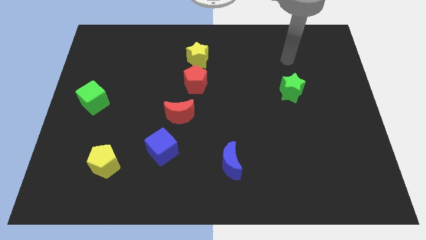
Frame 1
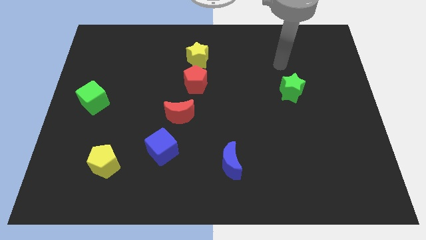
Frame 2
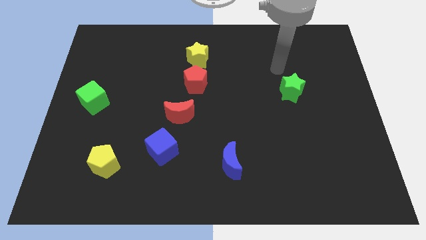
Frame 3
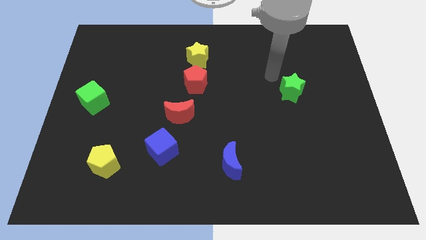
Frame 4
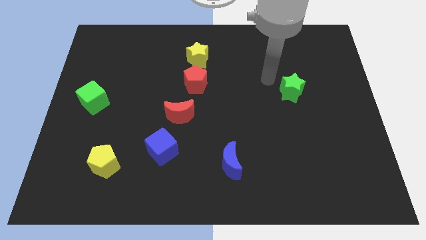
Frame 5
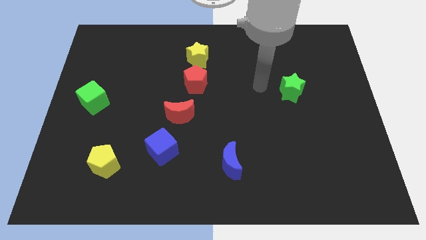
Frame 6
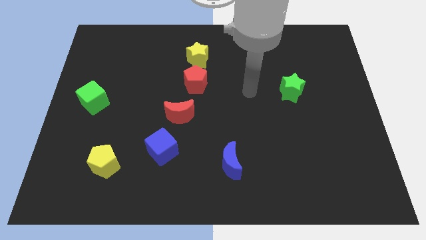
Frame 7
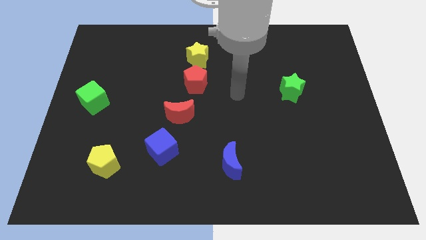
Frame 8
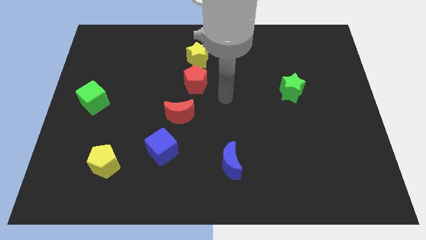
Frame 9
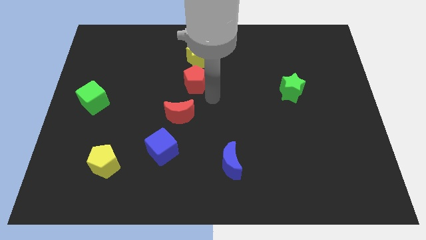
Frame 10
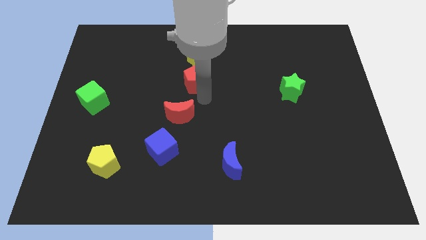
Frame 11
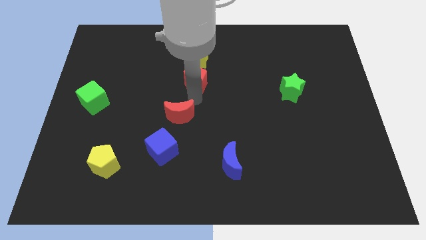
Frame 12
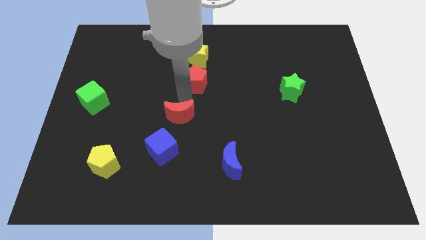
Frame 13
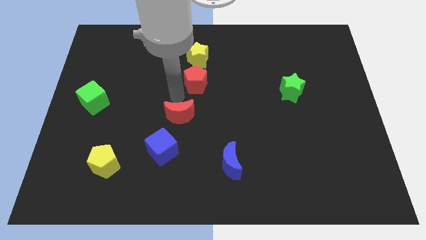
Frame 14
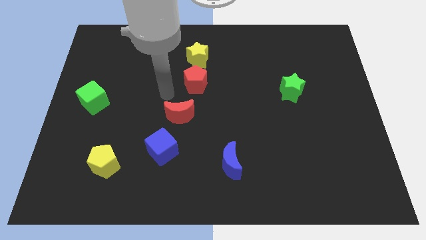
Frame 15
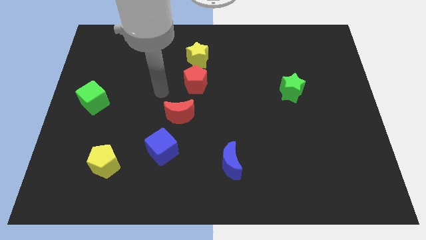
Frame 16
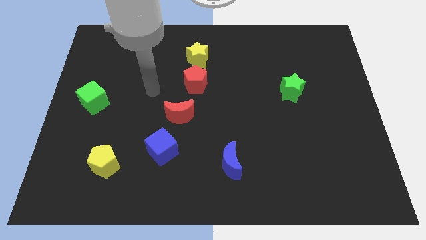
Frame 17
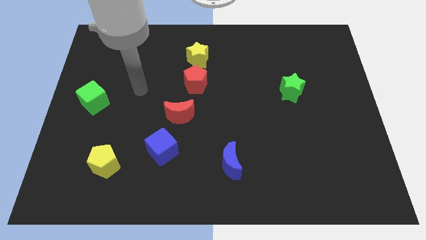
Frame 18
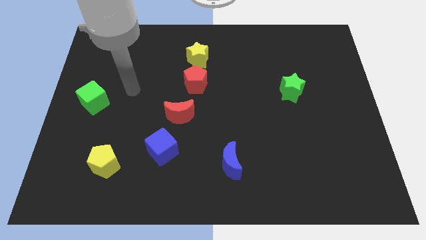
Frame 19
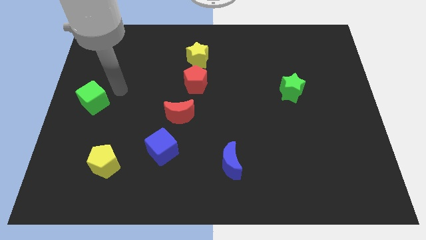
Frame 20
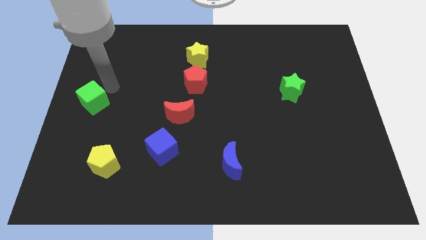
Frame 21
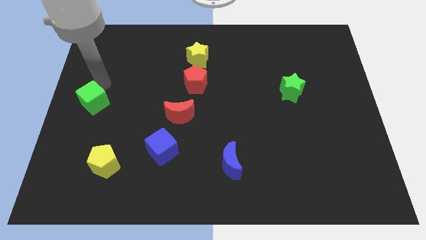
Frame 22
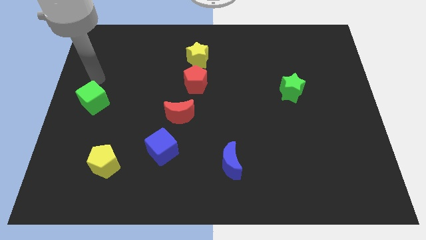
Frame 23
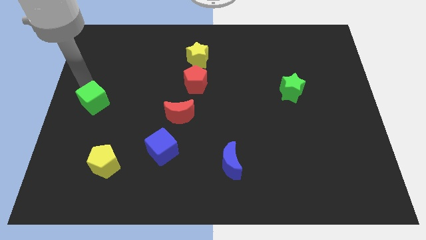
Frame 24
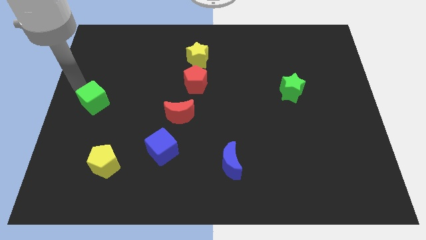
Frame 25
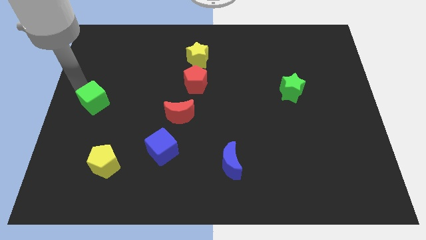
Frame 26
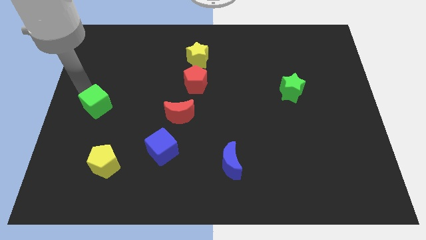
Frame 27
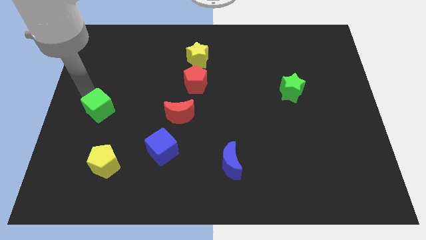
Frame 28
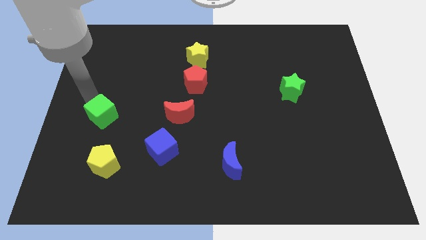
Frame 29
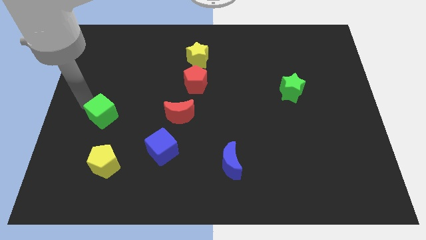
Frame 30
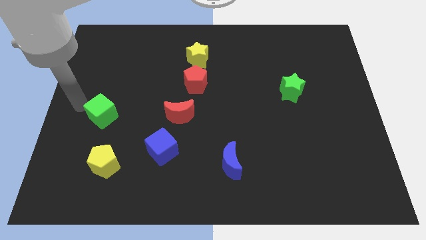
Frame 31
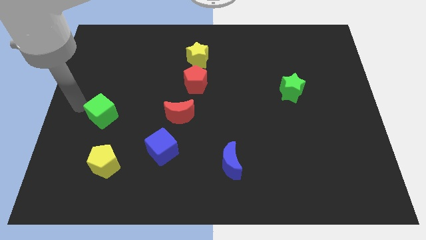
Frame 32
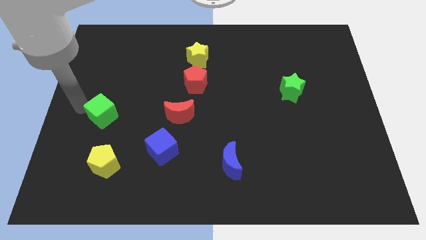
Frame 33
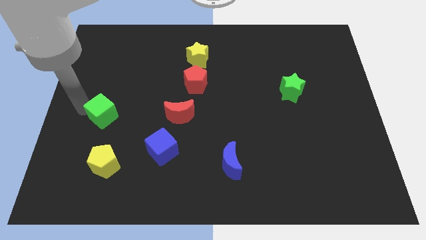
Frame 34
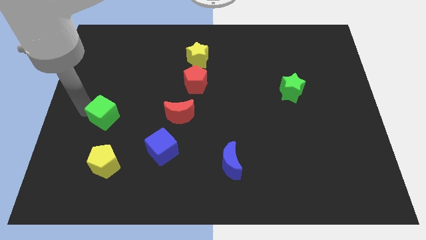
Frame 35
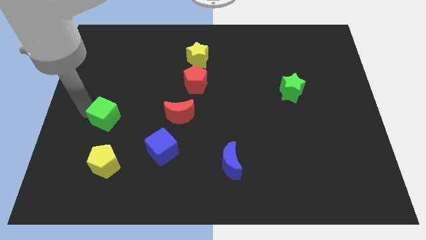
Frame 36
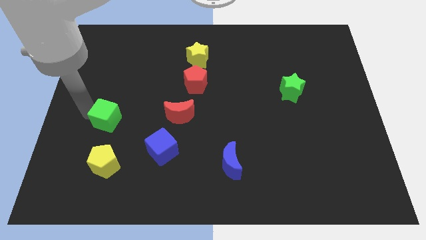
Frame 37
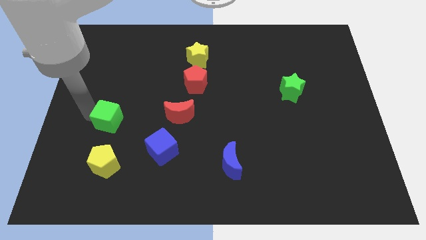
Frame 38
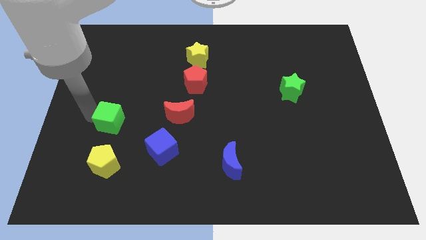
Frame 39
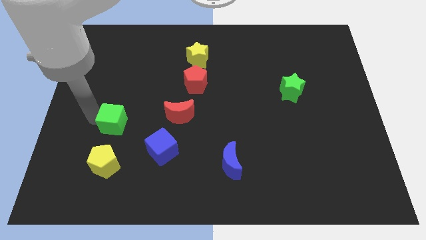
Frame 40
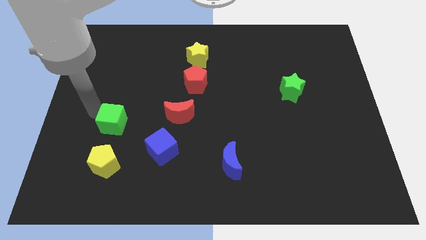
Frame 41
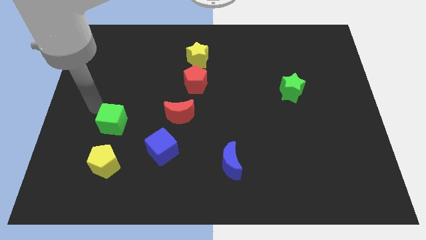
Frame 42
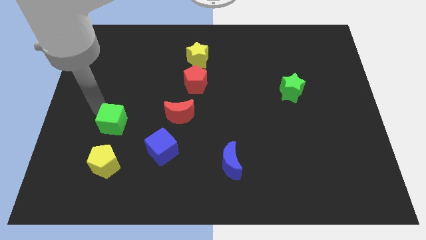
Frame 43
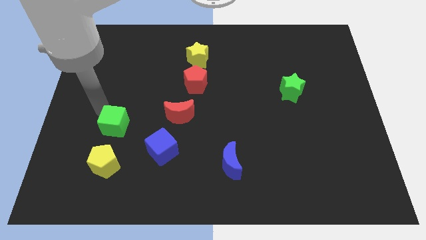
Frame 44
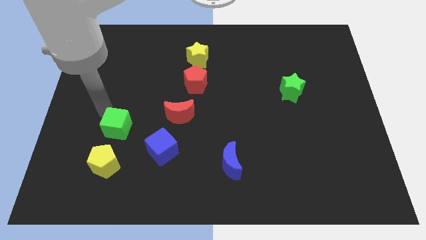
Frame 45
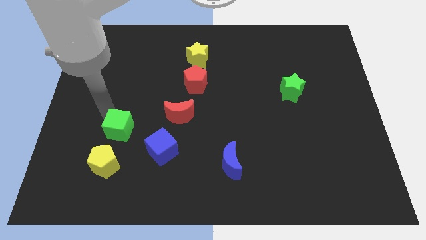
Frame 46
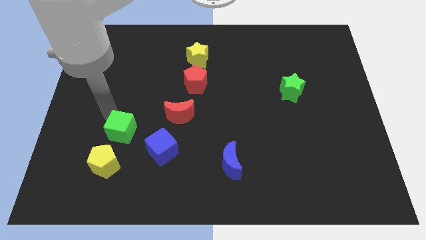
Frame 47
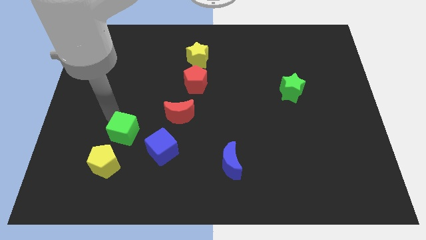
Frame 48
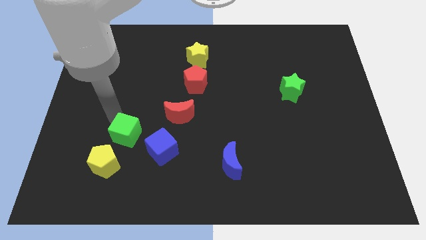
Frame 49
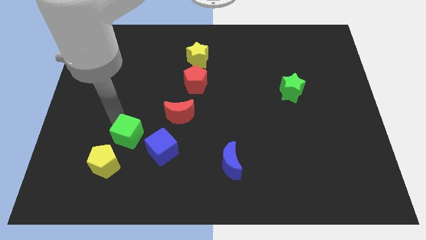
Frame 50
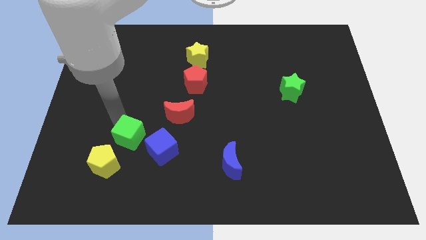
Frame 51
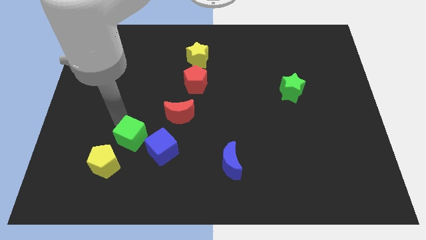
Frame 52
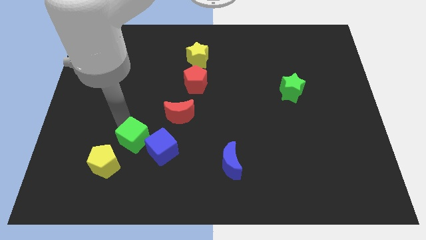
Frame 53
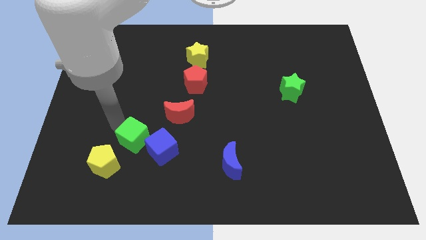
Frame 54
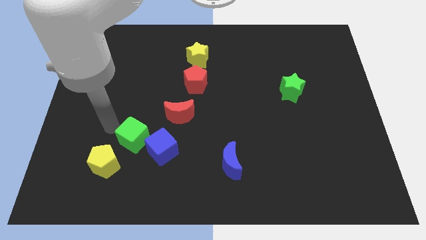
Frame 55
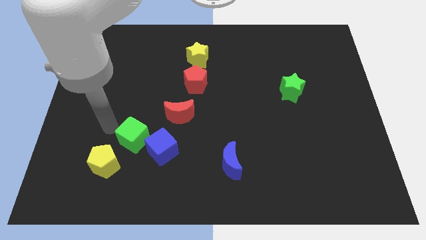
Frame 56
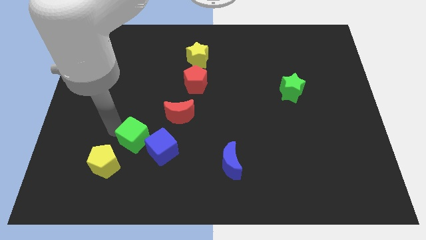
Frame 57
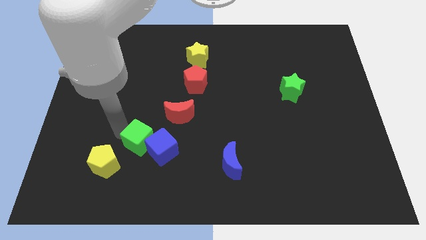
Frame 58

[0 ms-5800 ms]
push the green cube close to the blue cube

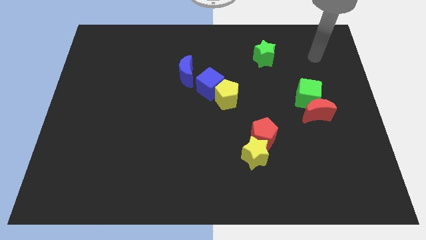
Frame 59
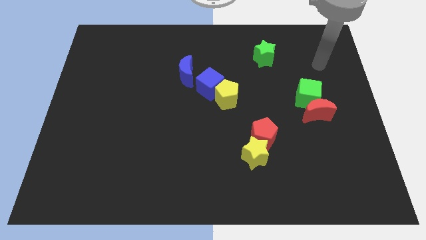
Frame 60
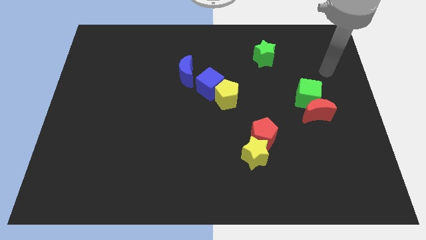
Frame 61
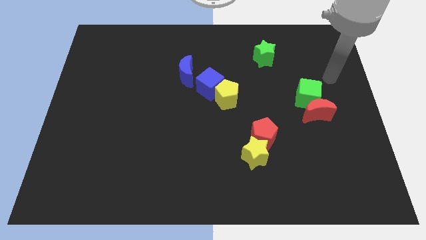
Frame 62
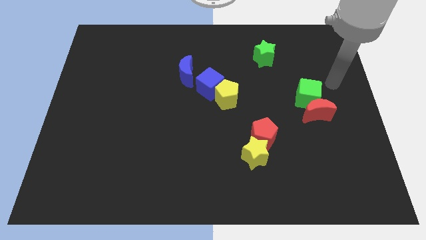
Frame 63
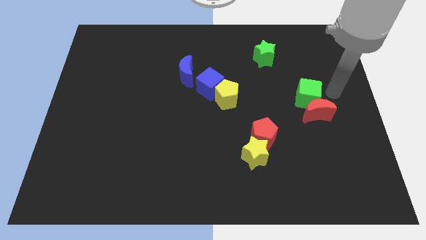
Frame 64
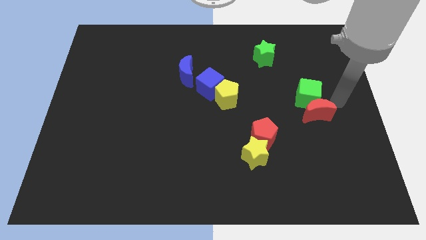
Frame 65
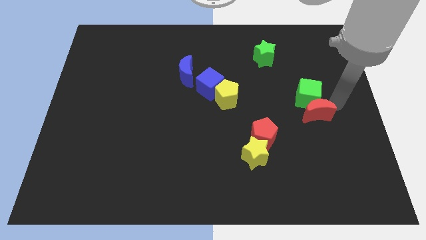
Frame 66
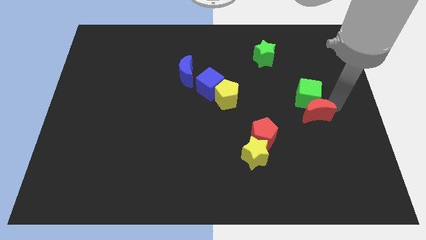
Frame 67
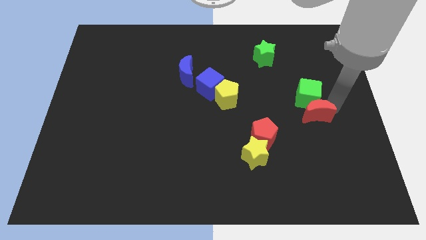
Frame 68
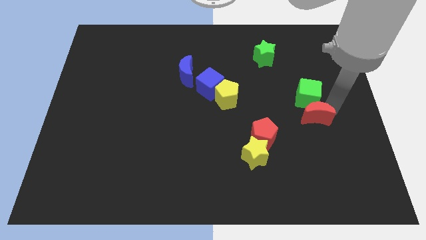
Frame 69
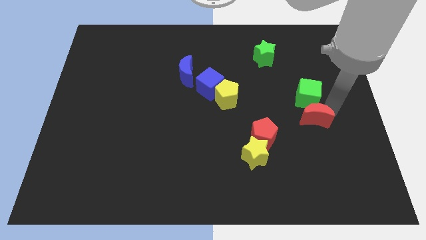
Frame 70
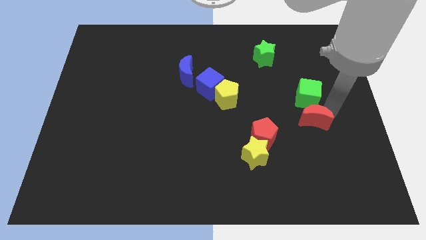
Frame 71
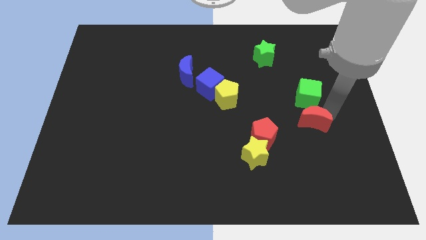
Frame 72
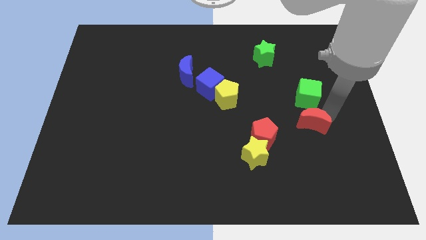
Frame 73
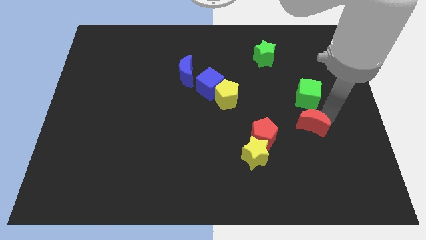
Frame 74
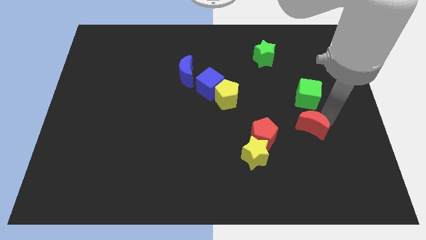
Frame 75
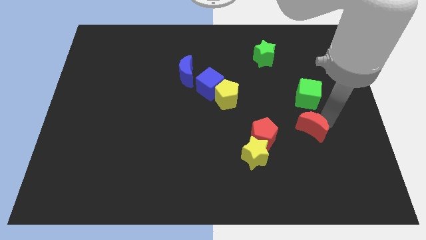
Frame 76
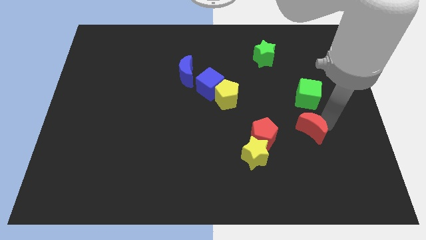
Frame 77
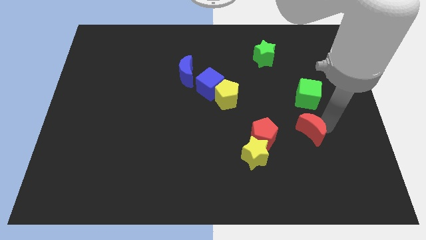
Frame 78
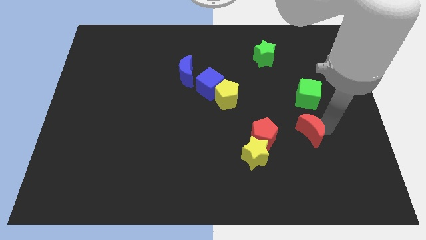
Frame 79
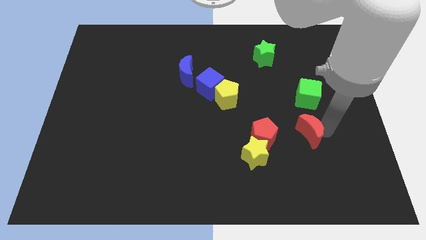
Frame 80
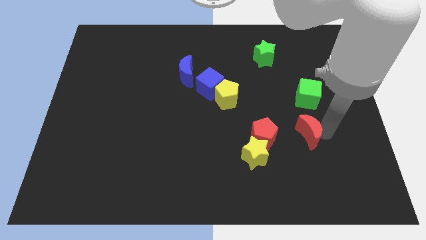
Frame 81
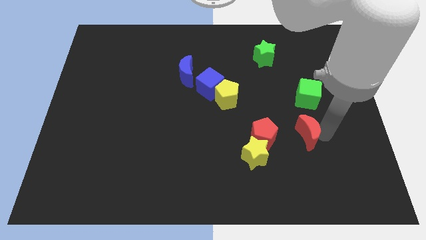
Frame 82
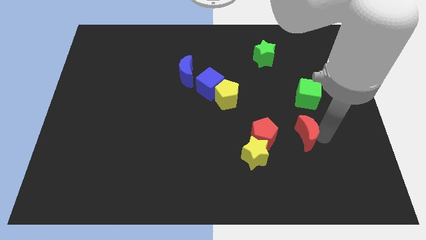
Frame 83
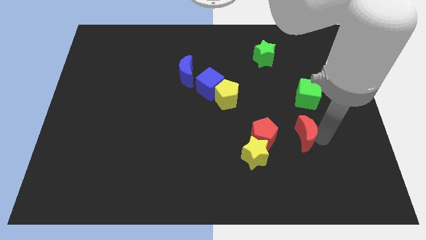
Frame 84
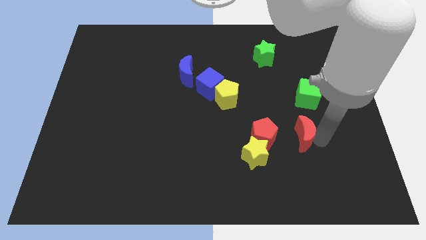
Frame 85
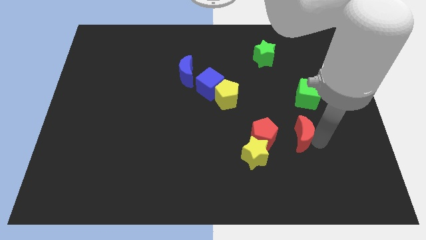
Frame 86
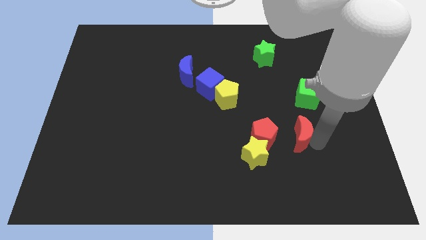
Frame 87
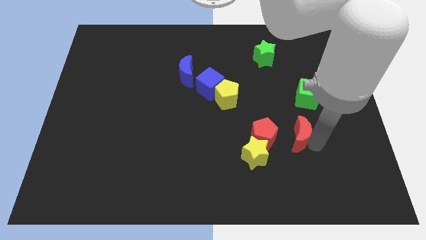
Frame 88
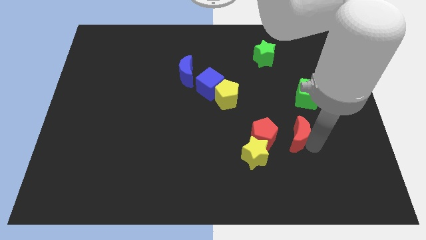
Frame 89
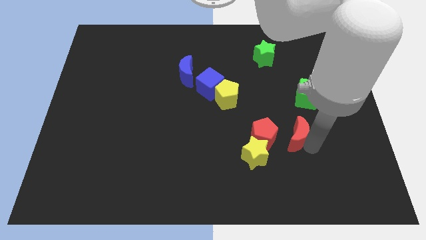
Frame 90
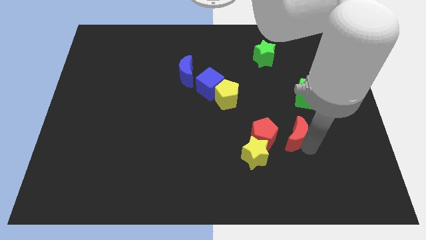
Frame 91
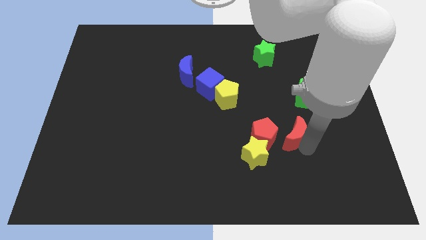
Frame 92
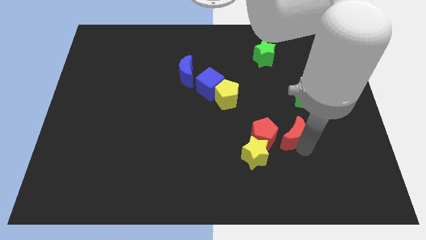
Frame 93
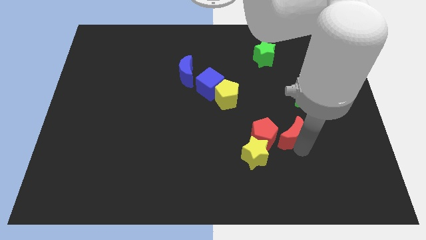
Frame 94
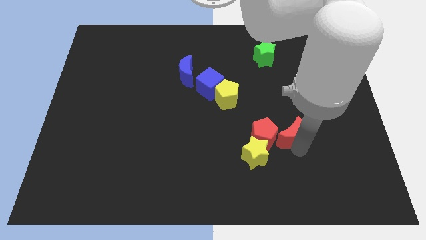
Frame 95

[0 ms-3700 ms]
move the red moon next to the red pentagon
